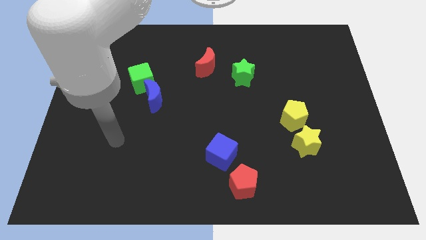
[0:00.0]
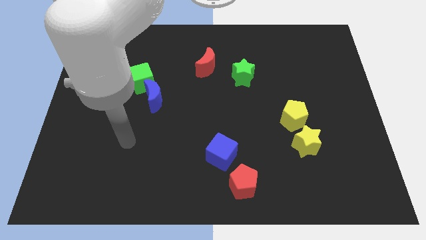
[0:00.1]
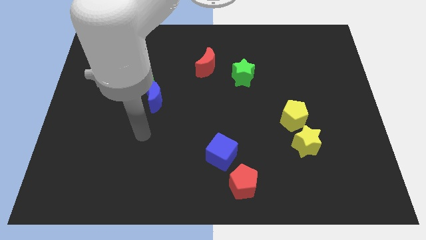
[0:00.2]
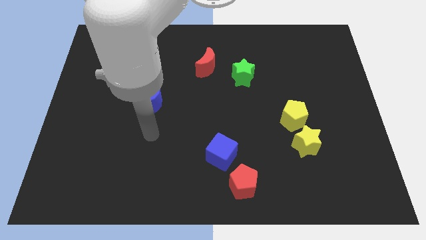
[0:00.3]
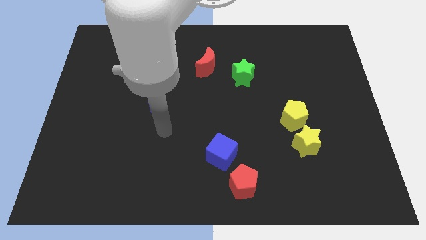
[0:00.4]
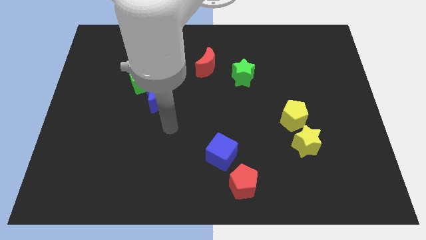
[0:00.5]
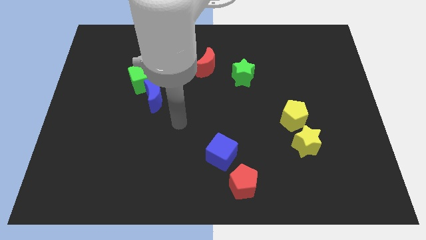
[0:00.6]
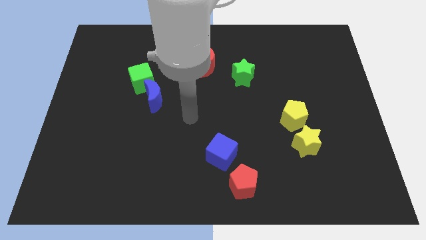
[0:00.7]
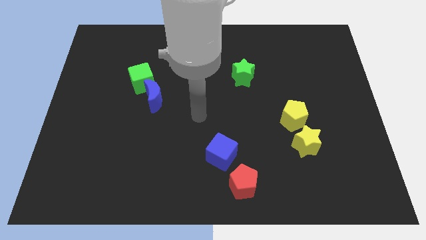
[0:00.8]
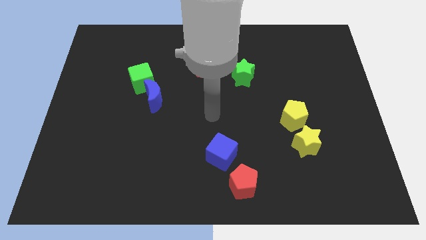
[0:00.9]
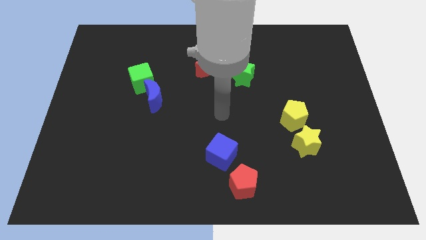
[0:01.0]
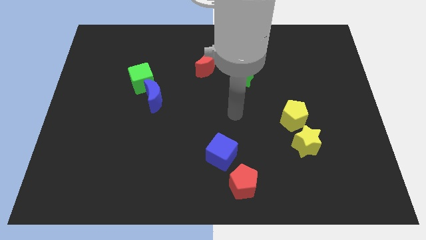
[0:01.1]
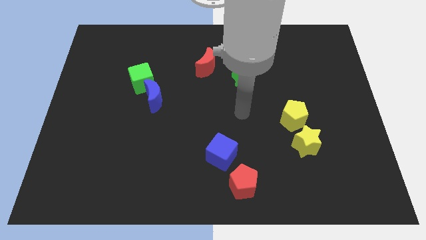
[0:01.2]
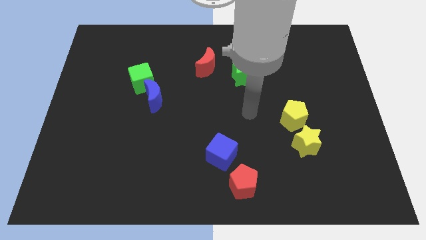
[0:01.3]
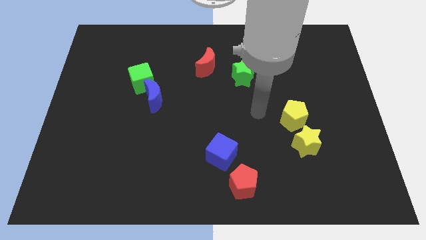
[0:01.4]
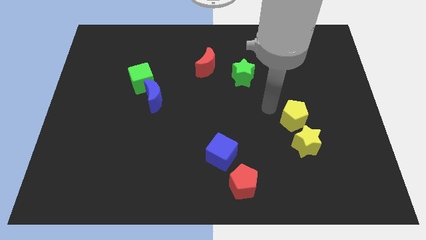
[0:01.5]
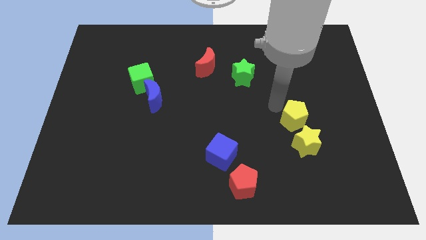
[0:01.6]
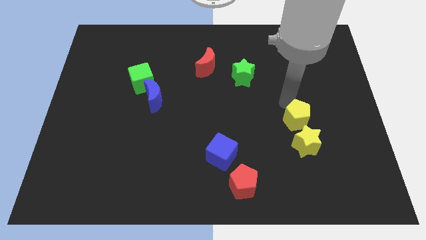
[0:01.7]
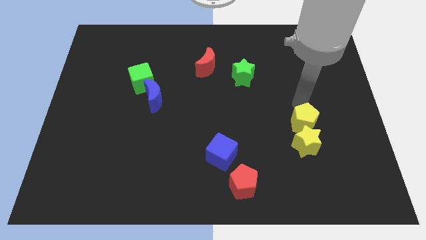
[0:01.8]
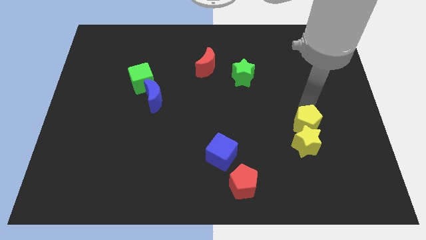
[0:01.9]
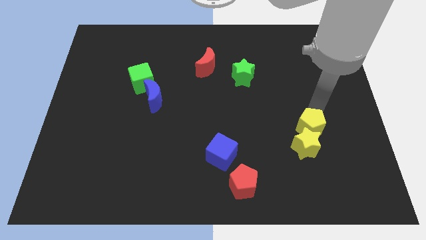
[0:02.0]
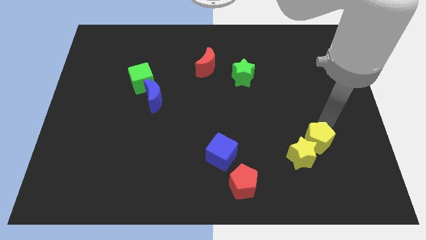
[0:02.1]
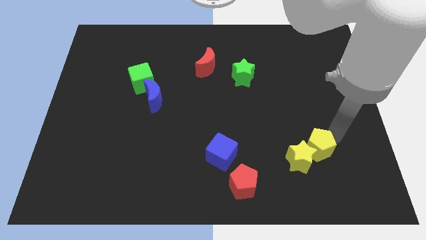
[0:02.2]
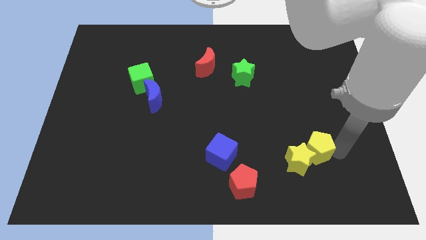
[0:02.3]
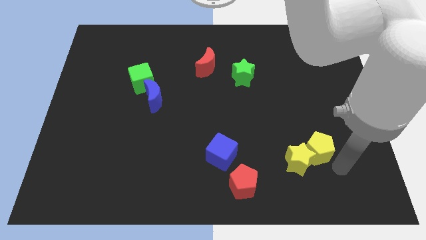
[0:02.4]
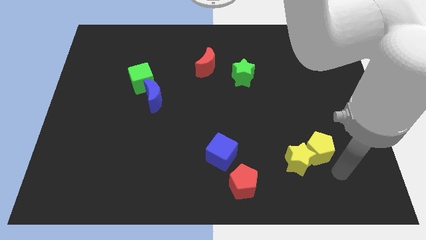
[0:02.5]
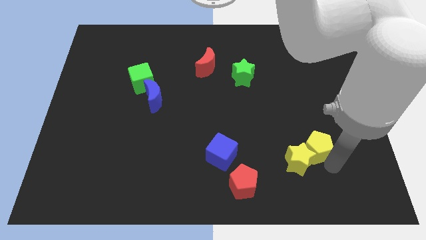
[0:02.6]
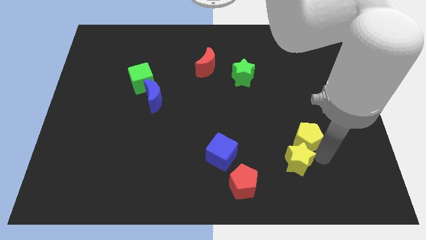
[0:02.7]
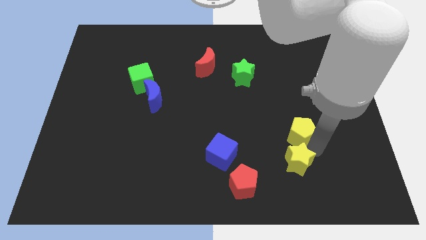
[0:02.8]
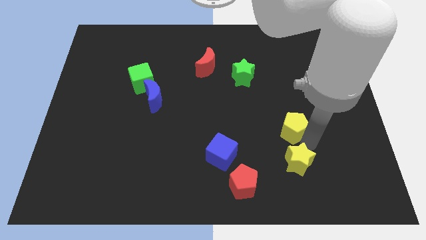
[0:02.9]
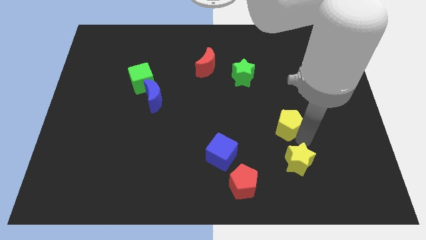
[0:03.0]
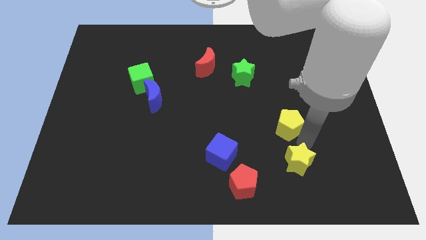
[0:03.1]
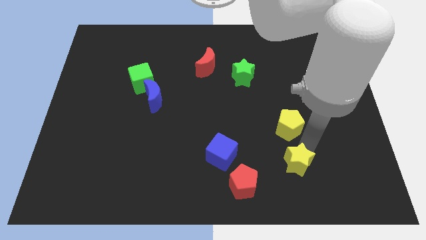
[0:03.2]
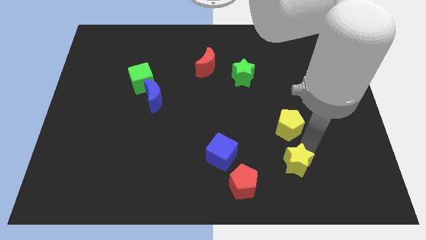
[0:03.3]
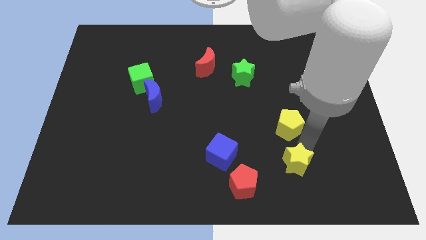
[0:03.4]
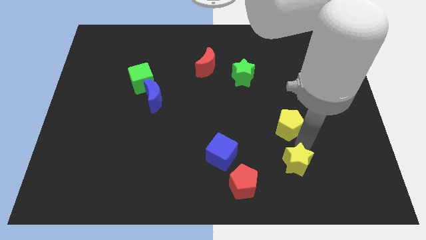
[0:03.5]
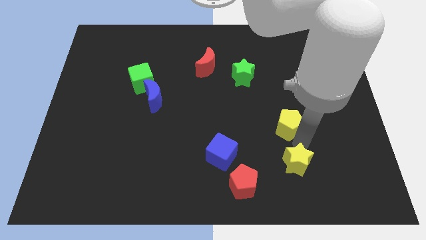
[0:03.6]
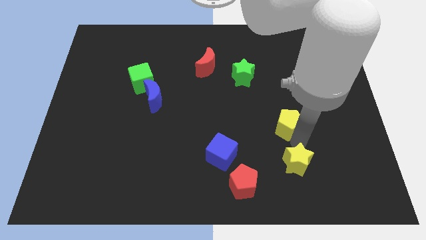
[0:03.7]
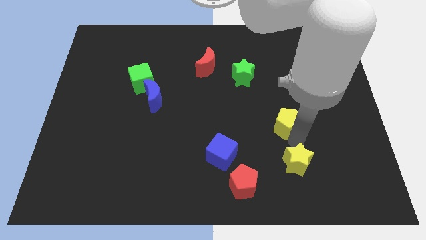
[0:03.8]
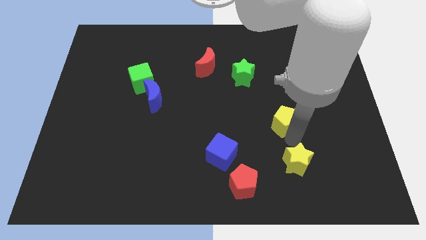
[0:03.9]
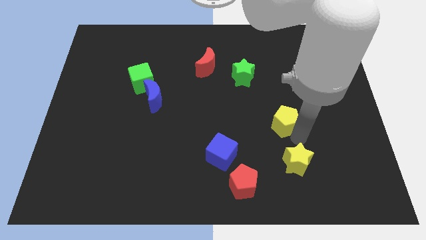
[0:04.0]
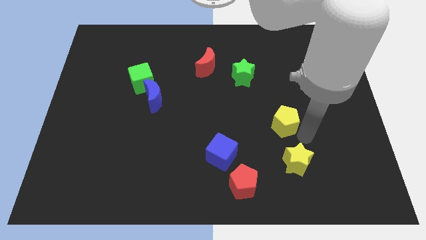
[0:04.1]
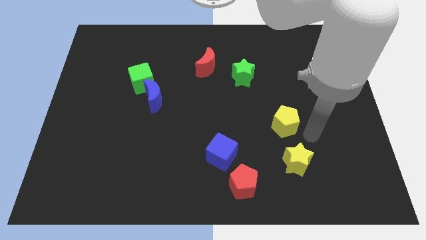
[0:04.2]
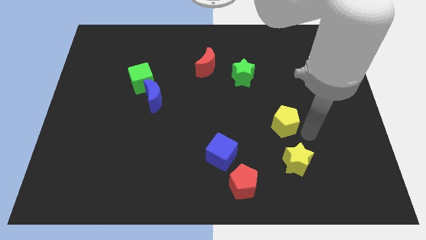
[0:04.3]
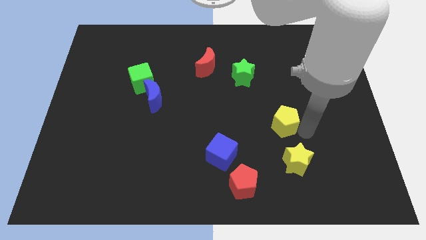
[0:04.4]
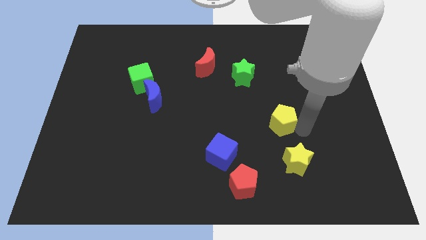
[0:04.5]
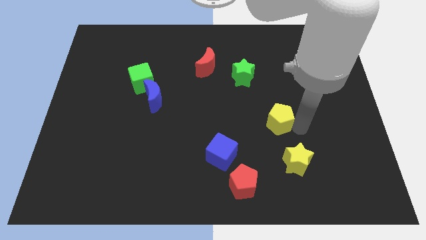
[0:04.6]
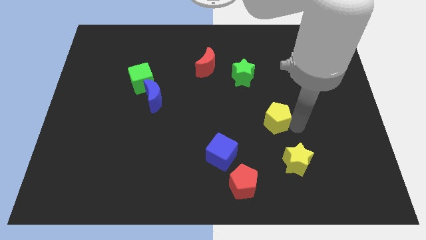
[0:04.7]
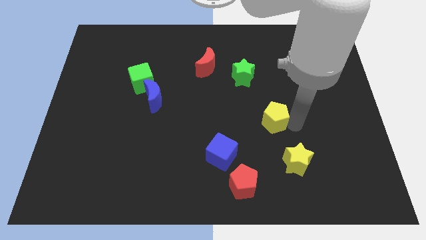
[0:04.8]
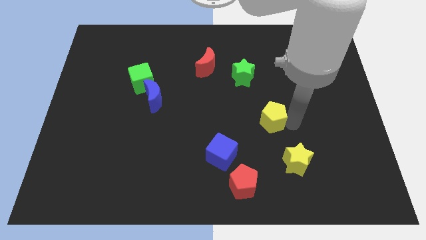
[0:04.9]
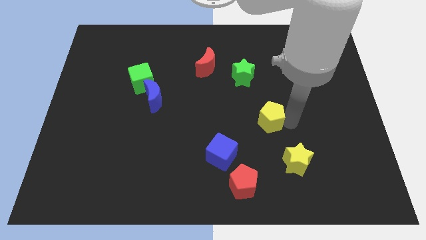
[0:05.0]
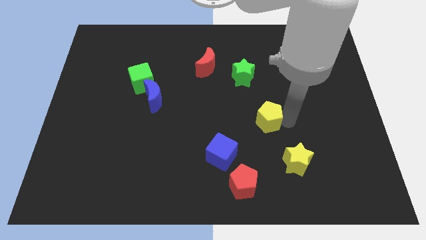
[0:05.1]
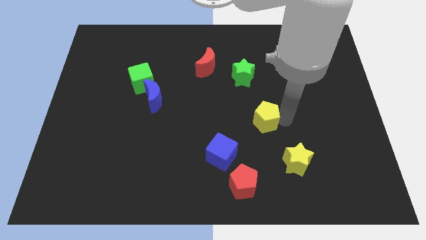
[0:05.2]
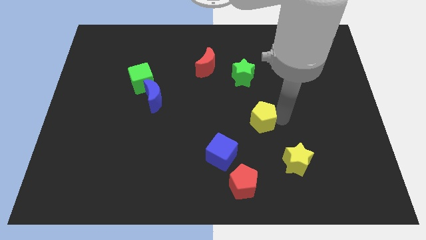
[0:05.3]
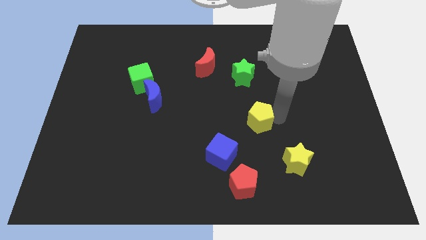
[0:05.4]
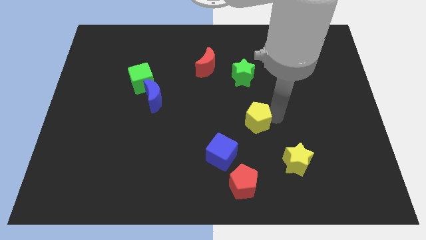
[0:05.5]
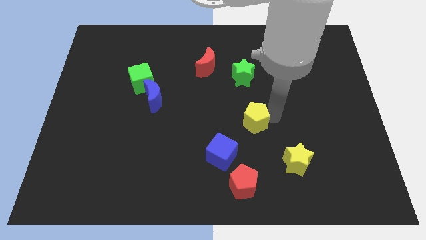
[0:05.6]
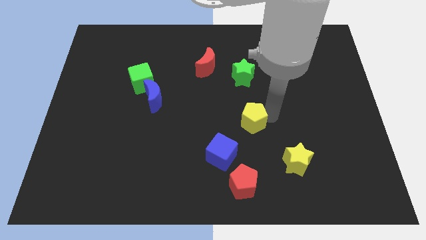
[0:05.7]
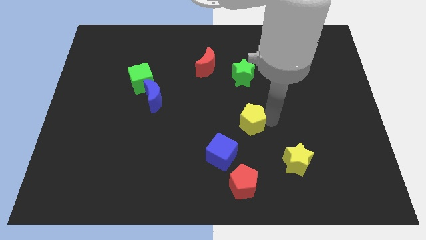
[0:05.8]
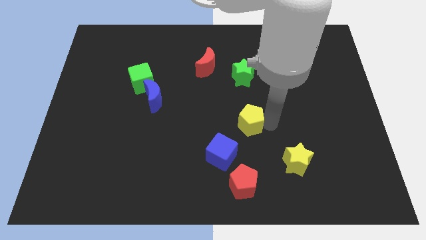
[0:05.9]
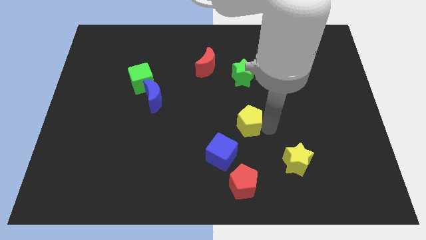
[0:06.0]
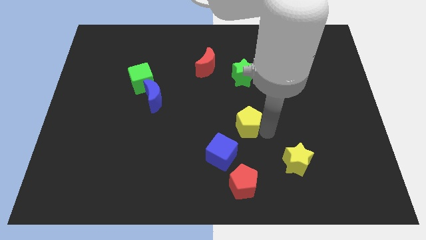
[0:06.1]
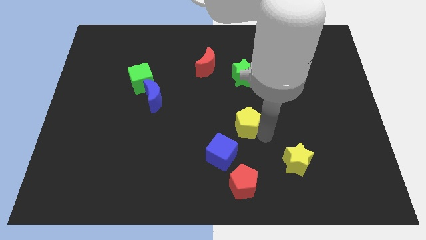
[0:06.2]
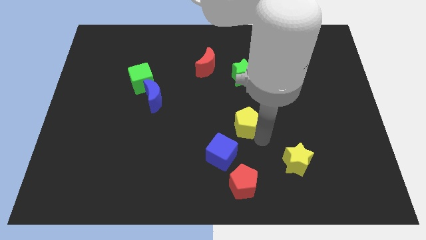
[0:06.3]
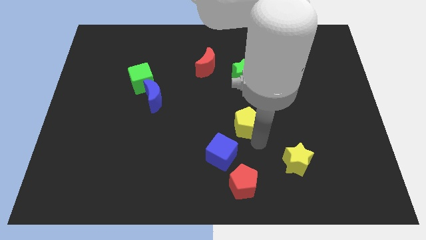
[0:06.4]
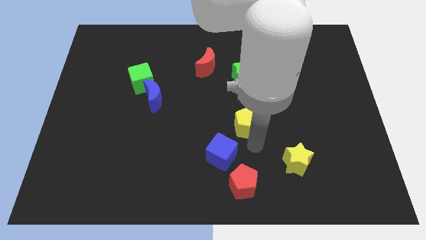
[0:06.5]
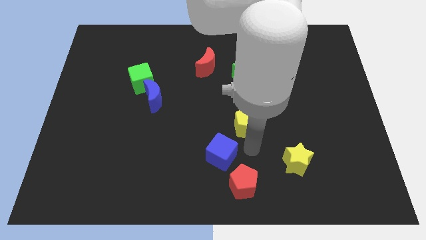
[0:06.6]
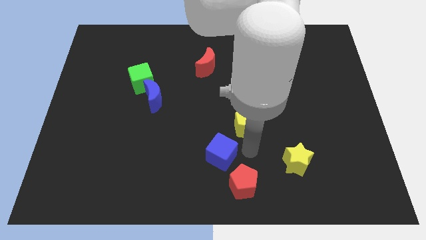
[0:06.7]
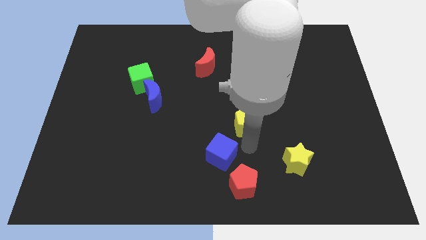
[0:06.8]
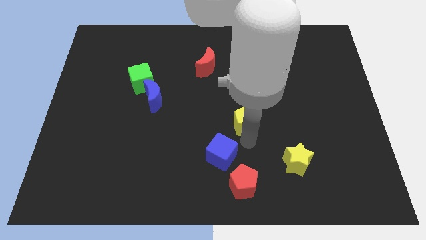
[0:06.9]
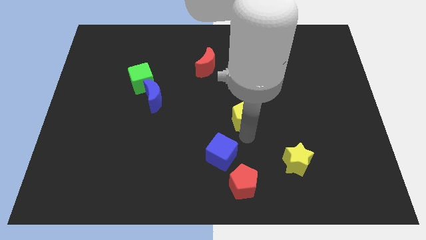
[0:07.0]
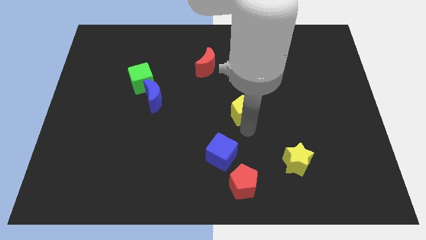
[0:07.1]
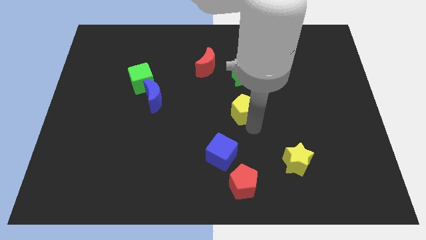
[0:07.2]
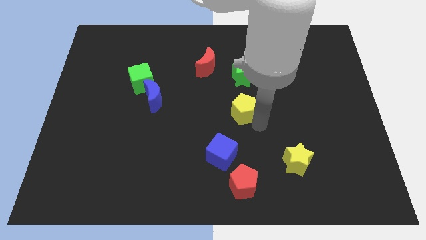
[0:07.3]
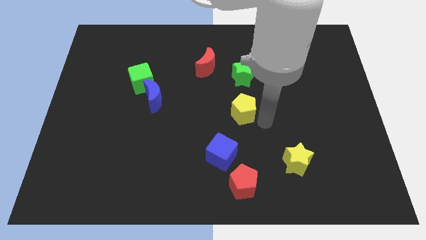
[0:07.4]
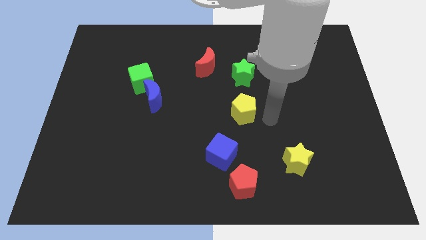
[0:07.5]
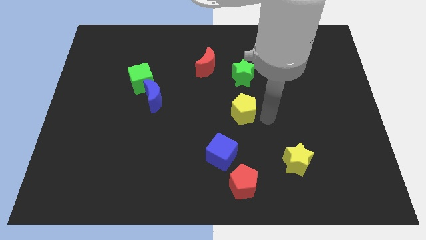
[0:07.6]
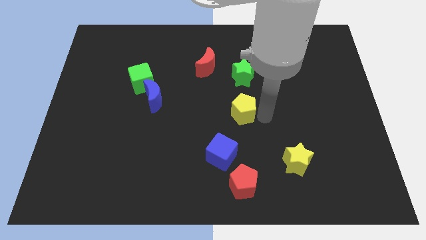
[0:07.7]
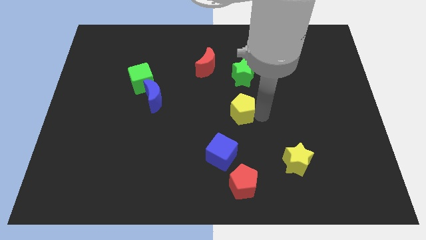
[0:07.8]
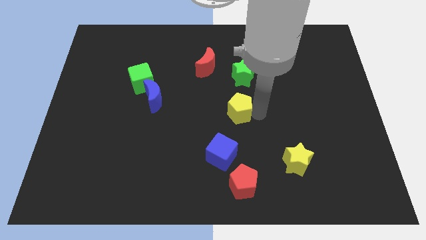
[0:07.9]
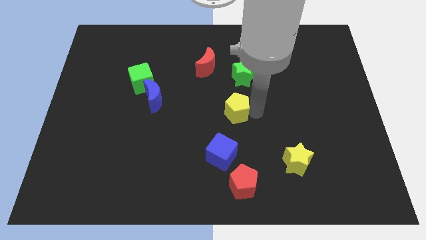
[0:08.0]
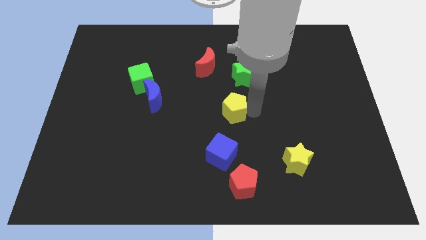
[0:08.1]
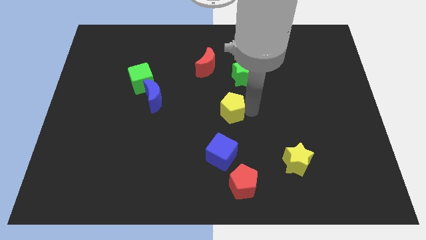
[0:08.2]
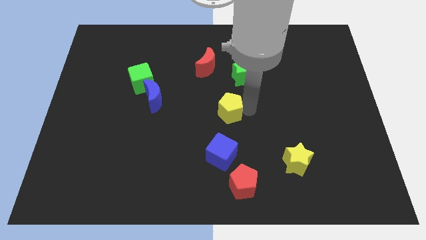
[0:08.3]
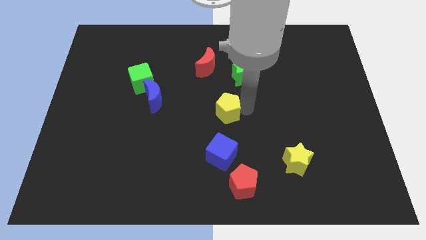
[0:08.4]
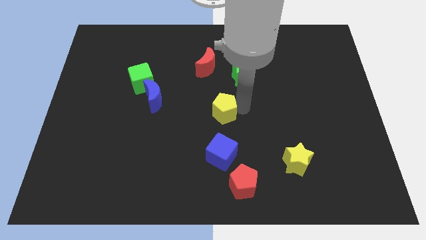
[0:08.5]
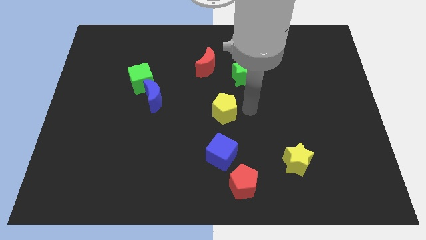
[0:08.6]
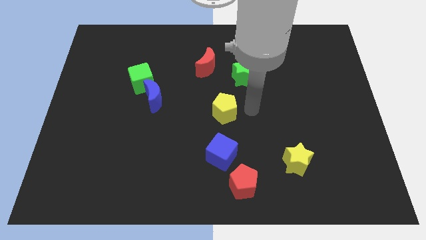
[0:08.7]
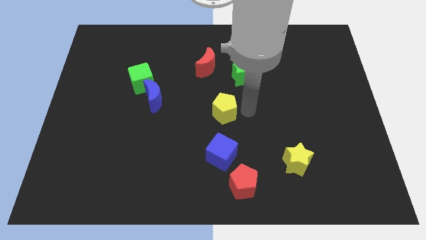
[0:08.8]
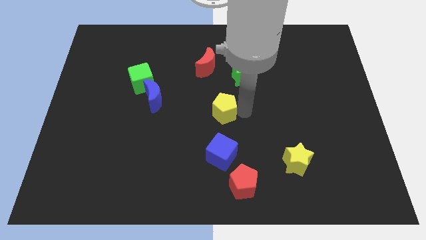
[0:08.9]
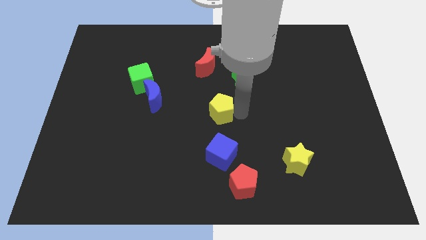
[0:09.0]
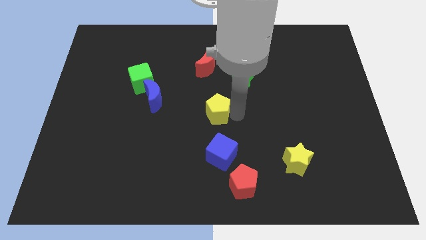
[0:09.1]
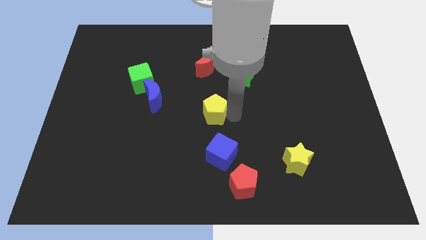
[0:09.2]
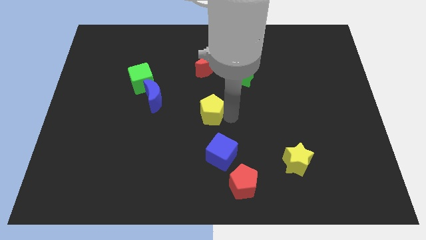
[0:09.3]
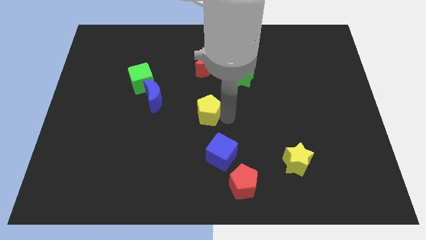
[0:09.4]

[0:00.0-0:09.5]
move the yellow pentagon to the left
